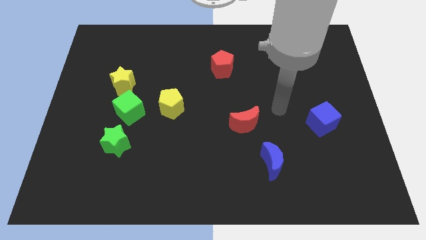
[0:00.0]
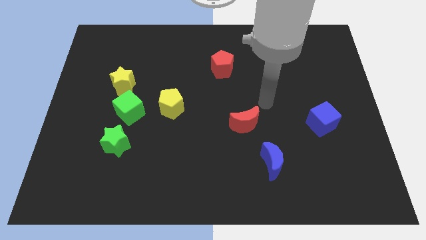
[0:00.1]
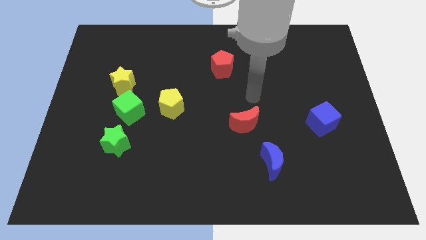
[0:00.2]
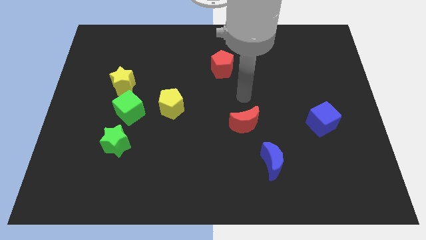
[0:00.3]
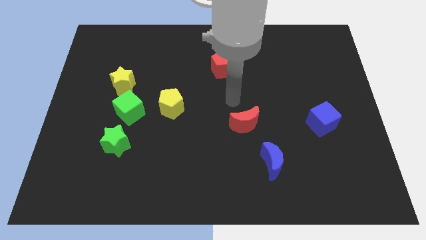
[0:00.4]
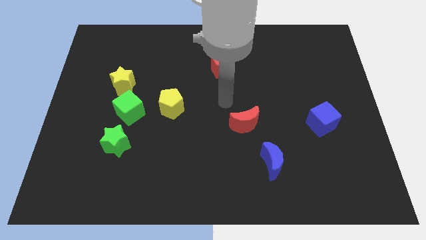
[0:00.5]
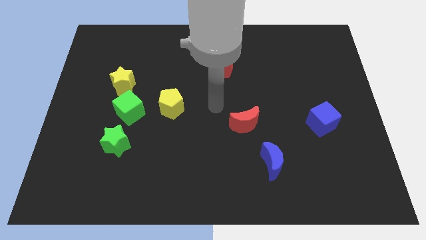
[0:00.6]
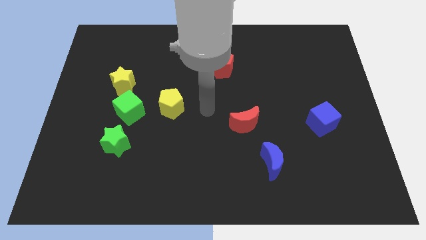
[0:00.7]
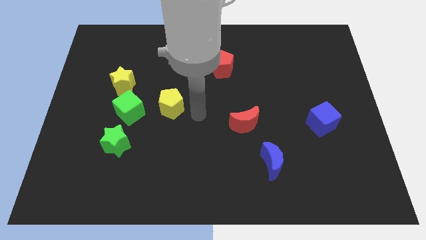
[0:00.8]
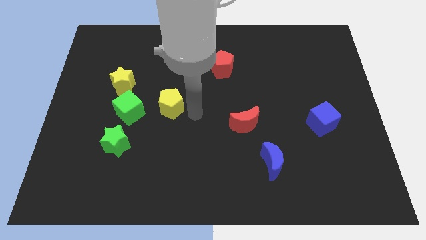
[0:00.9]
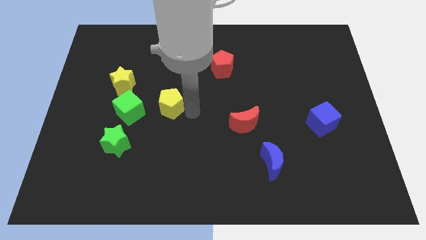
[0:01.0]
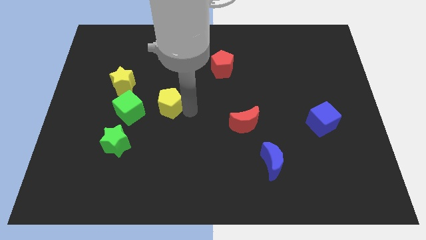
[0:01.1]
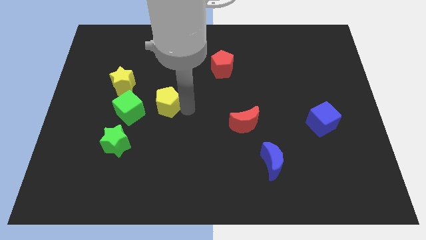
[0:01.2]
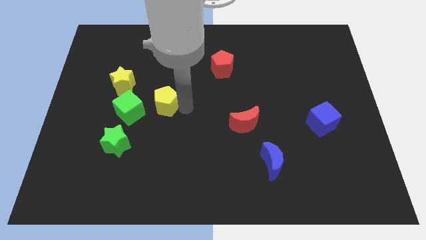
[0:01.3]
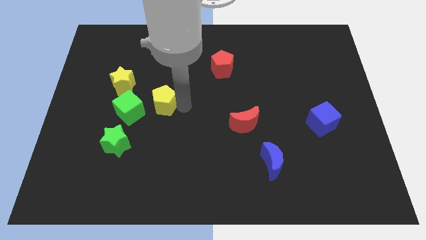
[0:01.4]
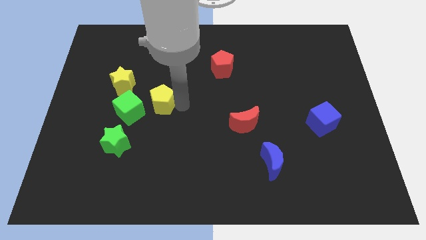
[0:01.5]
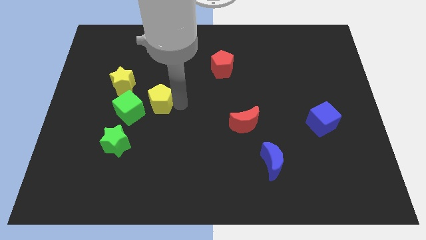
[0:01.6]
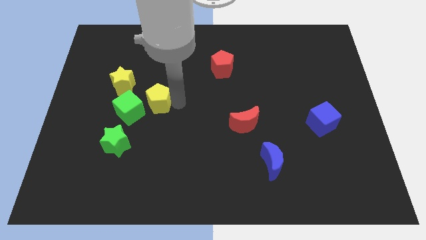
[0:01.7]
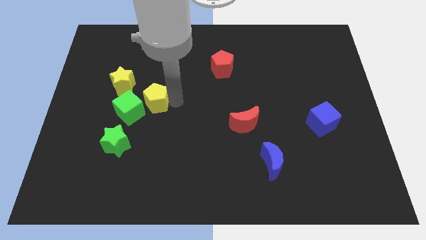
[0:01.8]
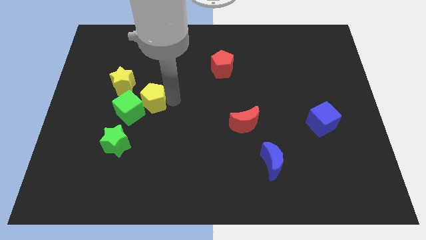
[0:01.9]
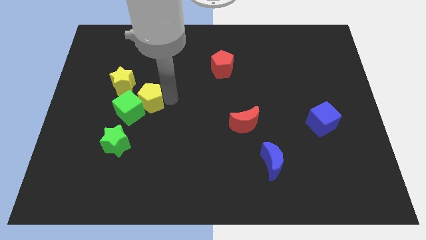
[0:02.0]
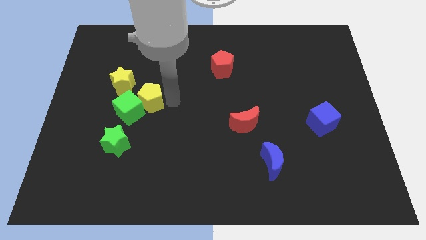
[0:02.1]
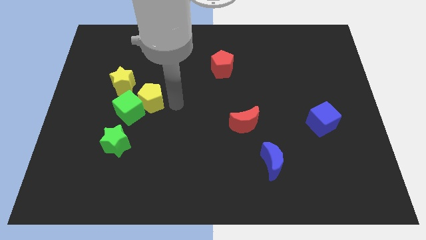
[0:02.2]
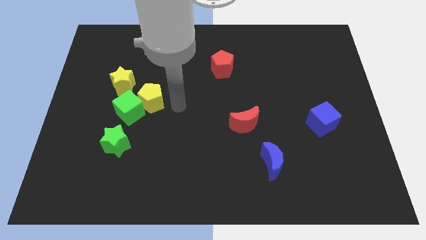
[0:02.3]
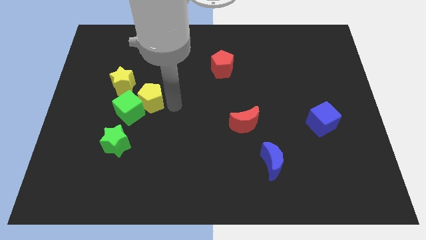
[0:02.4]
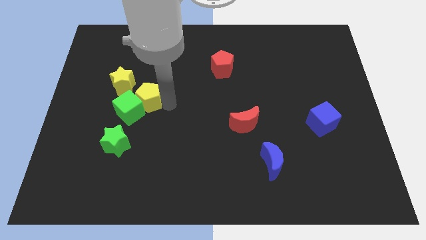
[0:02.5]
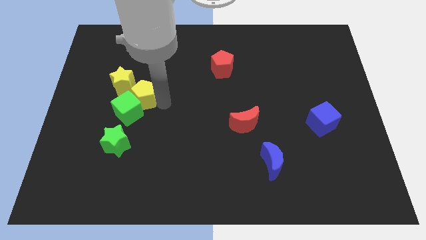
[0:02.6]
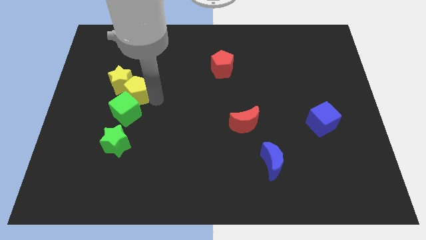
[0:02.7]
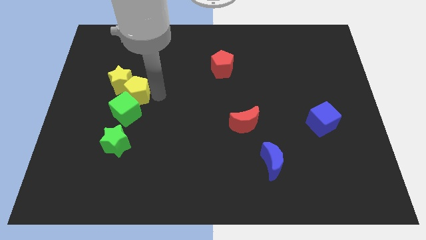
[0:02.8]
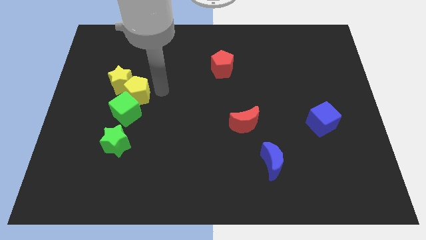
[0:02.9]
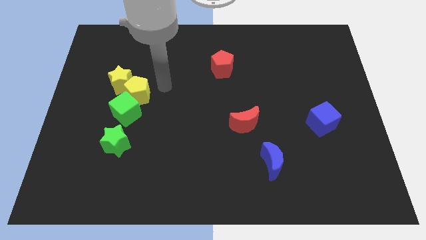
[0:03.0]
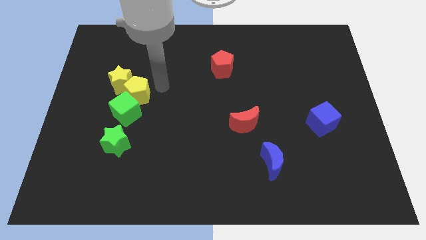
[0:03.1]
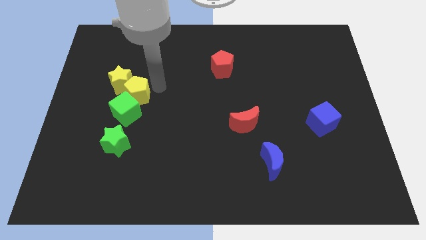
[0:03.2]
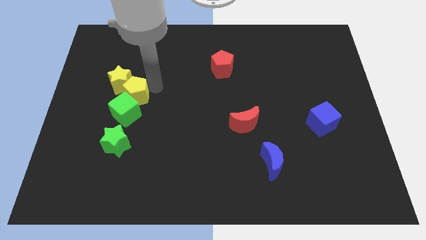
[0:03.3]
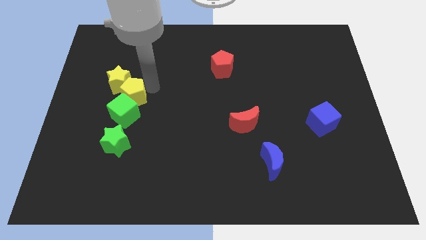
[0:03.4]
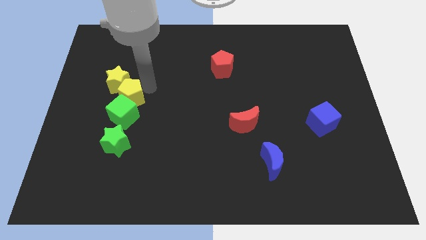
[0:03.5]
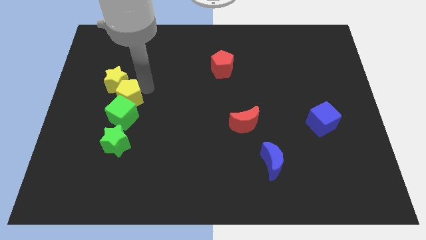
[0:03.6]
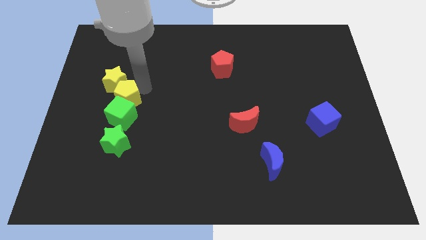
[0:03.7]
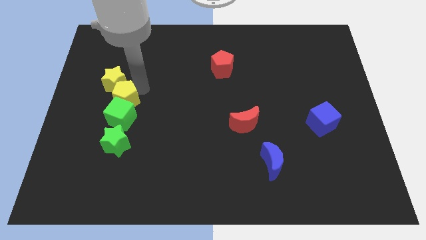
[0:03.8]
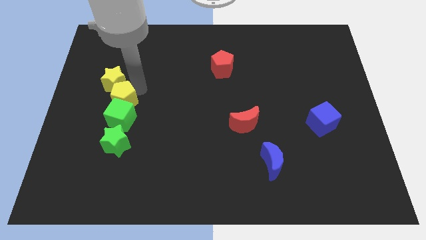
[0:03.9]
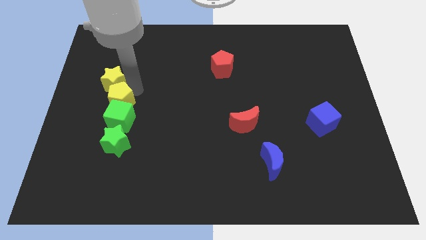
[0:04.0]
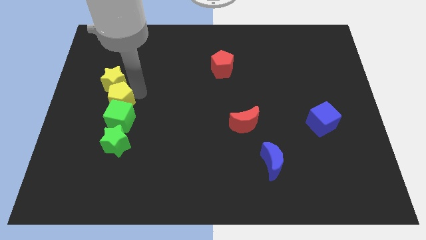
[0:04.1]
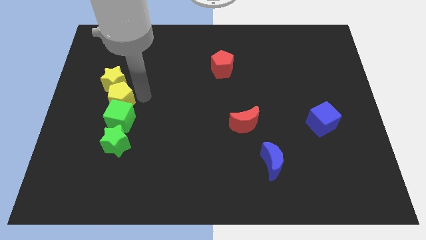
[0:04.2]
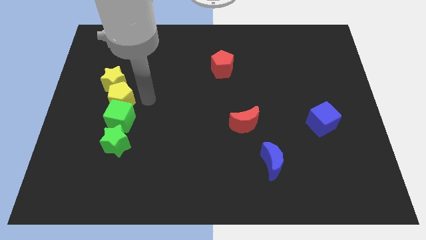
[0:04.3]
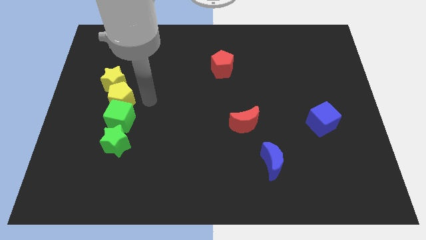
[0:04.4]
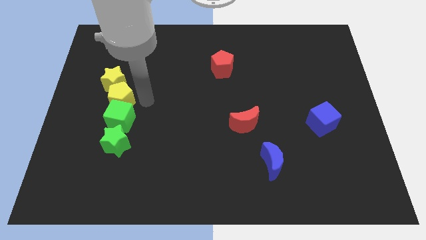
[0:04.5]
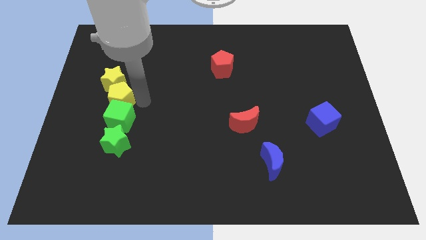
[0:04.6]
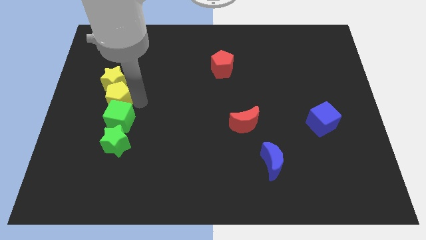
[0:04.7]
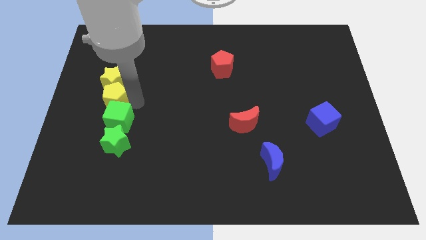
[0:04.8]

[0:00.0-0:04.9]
put the yellow pentagon diagonally down and to the left of the yellow star

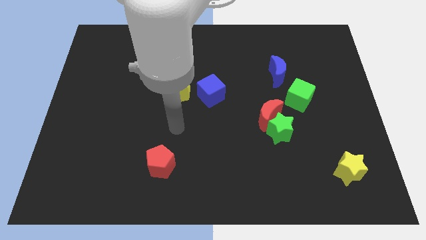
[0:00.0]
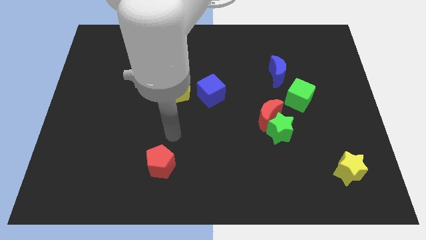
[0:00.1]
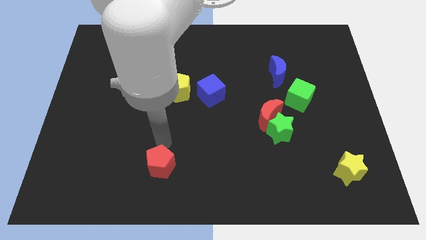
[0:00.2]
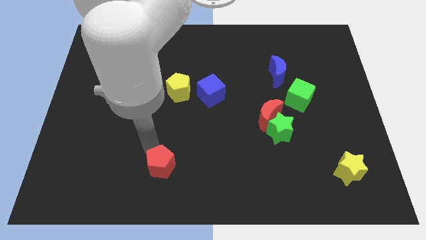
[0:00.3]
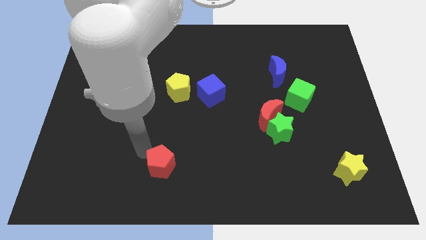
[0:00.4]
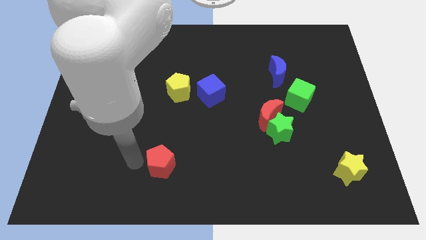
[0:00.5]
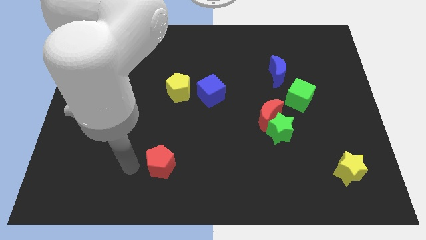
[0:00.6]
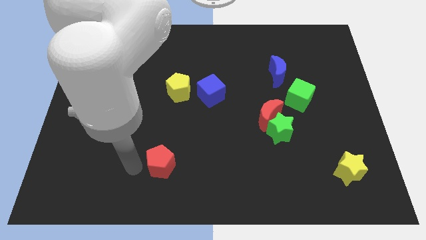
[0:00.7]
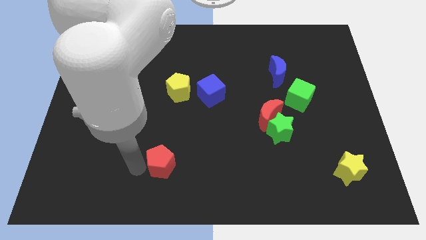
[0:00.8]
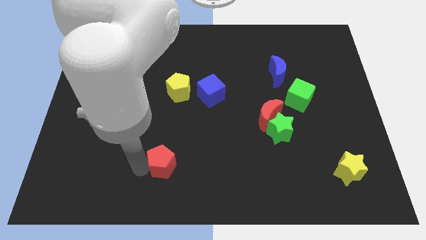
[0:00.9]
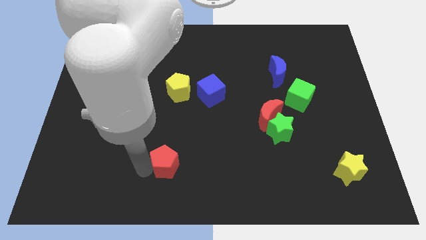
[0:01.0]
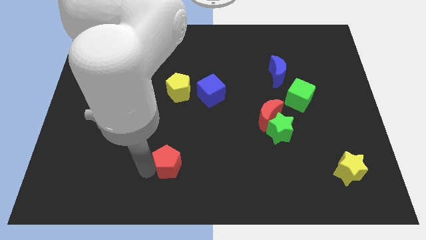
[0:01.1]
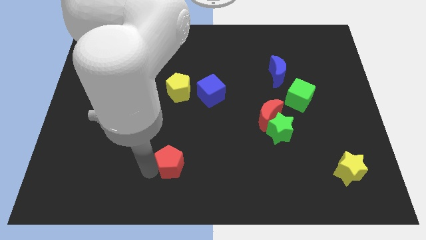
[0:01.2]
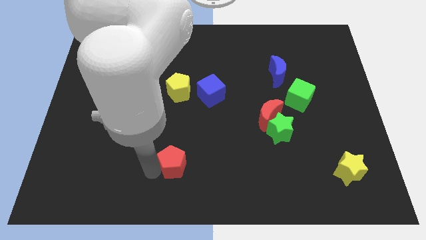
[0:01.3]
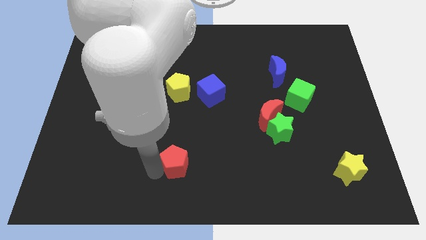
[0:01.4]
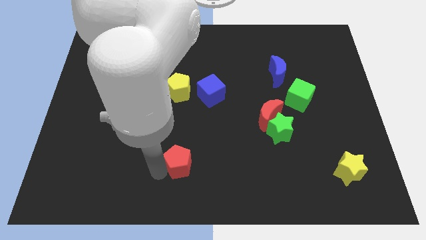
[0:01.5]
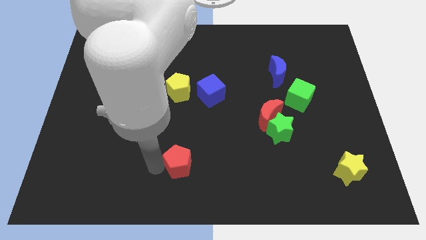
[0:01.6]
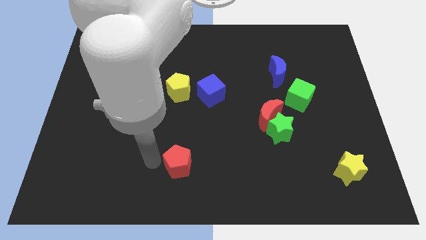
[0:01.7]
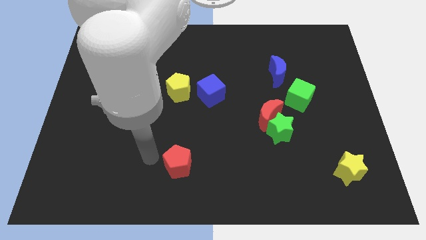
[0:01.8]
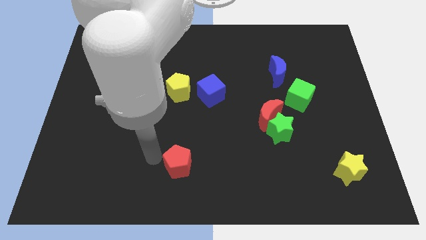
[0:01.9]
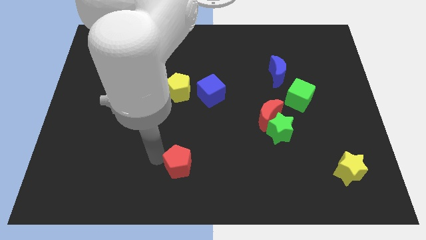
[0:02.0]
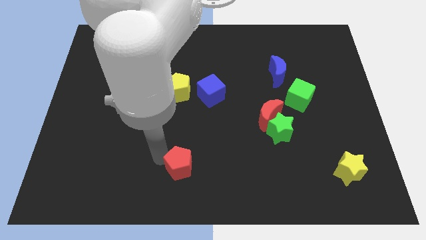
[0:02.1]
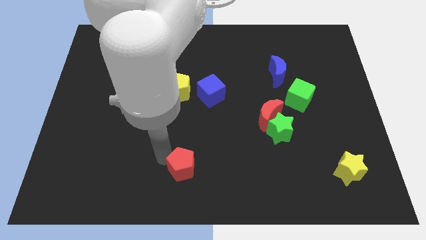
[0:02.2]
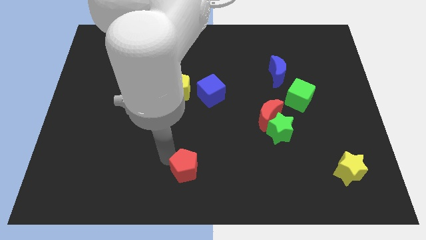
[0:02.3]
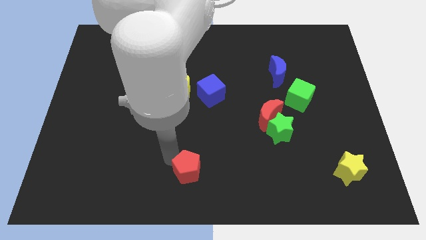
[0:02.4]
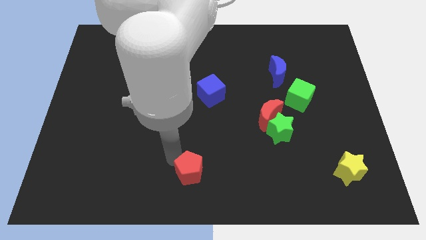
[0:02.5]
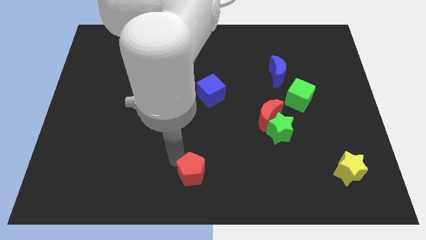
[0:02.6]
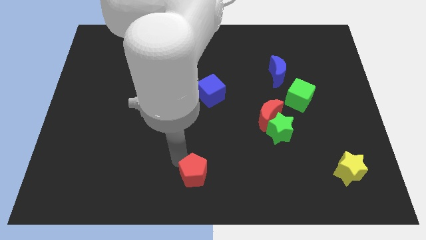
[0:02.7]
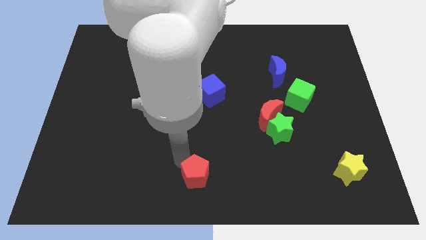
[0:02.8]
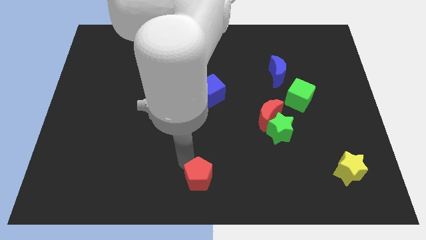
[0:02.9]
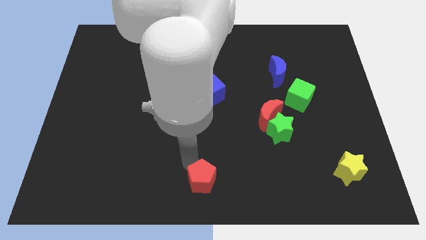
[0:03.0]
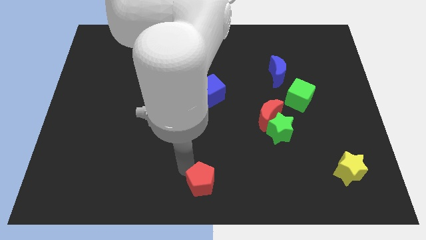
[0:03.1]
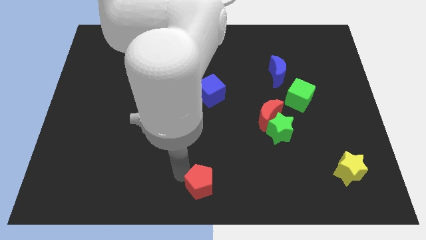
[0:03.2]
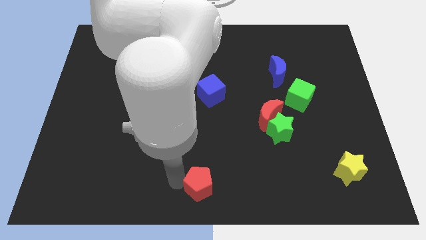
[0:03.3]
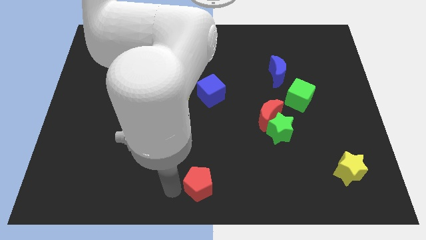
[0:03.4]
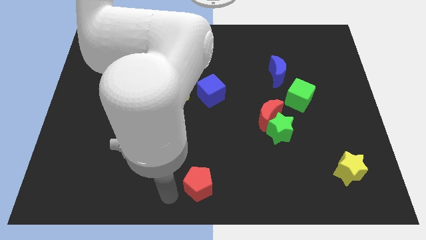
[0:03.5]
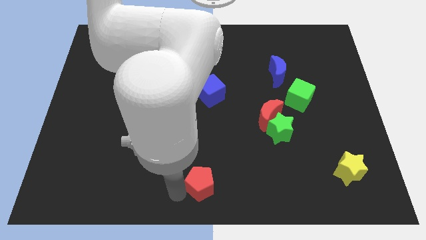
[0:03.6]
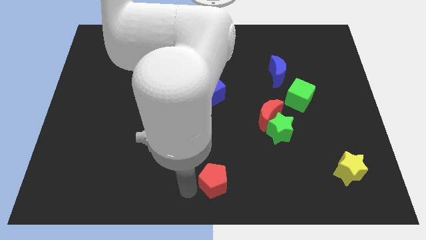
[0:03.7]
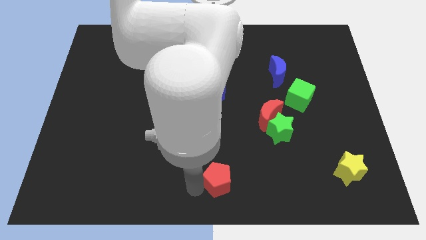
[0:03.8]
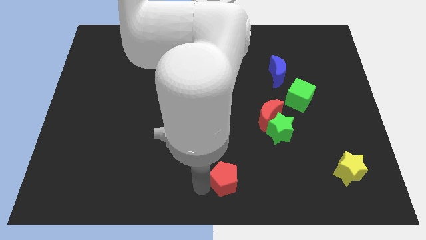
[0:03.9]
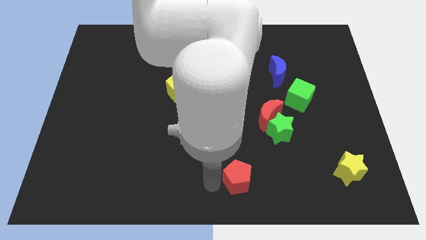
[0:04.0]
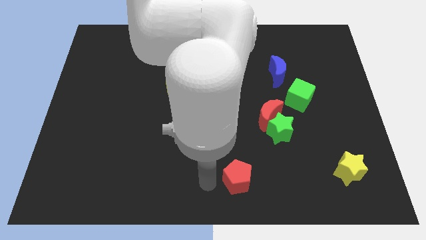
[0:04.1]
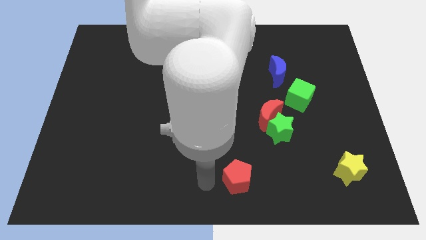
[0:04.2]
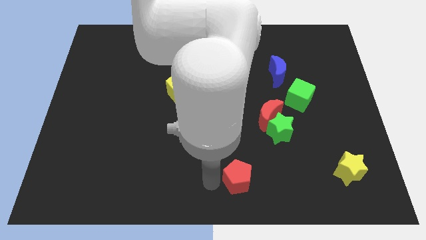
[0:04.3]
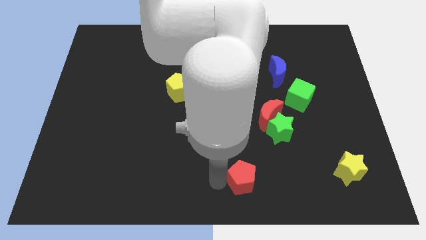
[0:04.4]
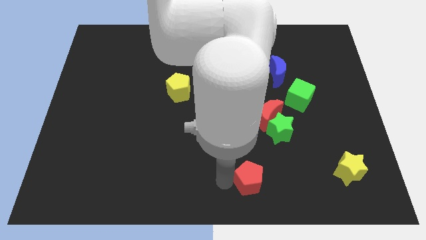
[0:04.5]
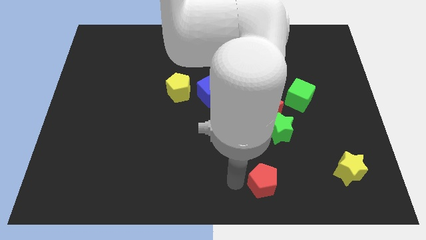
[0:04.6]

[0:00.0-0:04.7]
slide the red pentagon to the bottom of the green star
